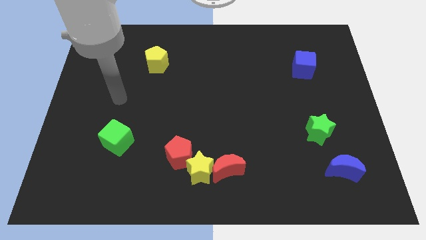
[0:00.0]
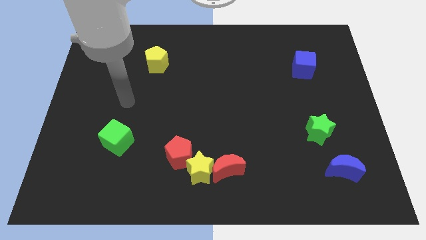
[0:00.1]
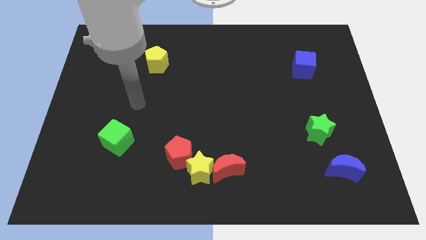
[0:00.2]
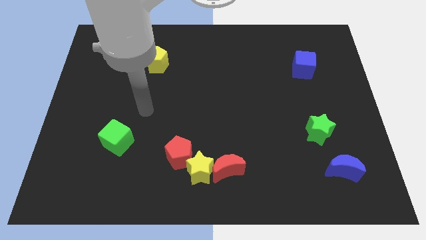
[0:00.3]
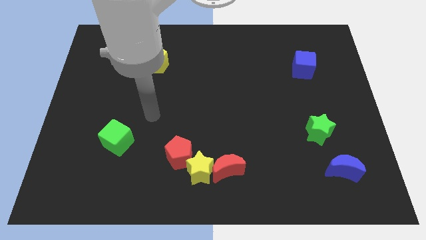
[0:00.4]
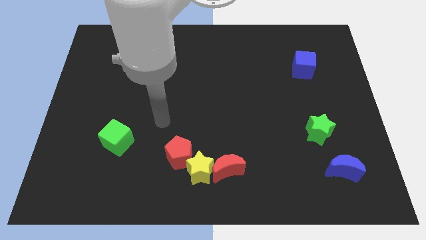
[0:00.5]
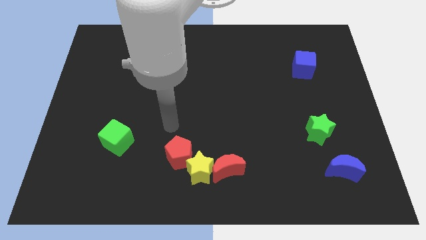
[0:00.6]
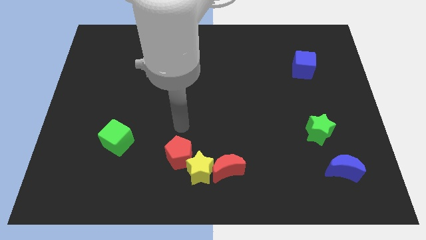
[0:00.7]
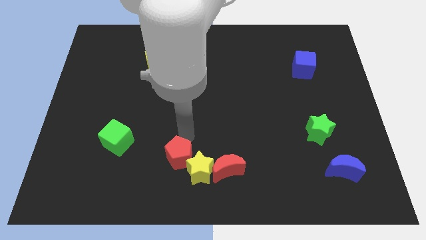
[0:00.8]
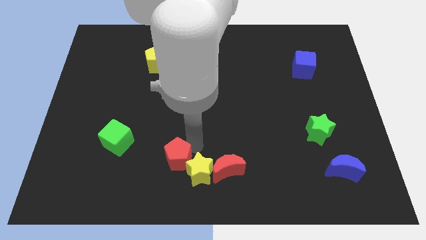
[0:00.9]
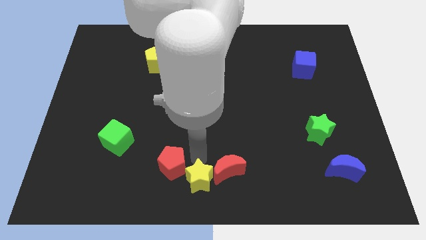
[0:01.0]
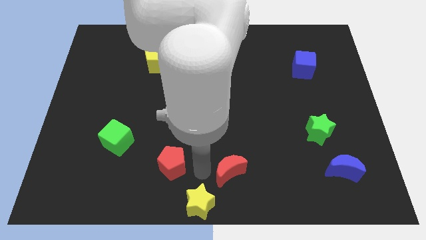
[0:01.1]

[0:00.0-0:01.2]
pull the red pentagon apart from the yellow star

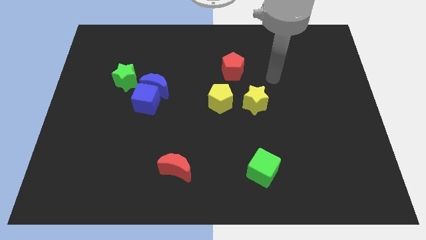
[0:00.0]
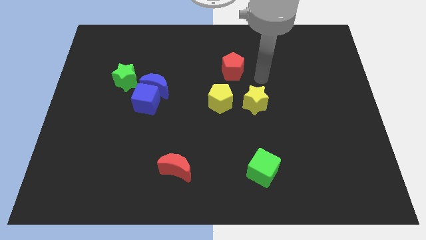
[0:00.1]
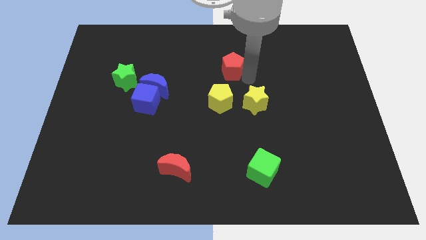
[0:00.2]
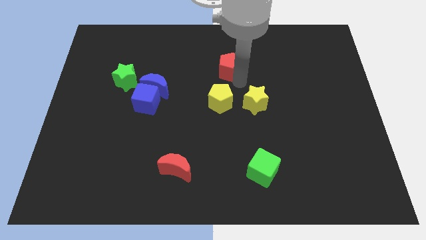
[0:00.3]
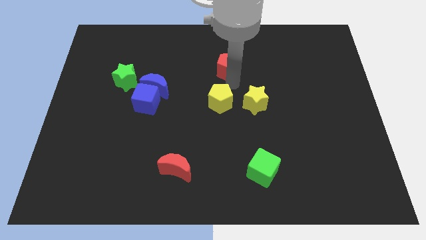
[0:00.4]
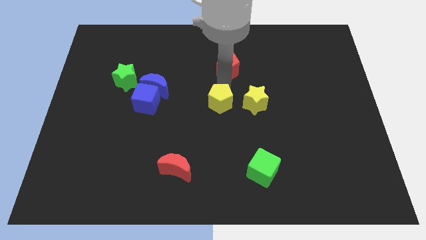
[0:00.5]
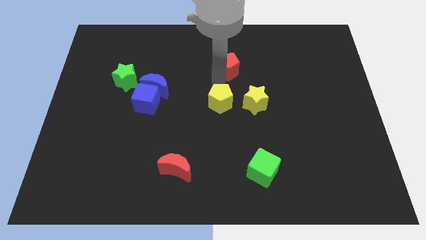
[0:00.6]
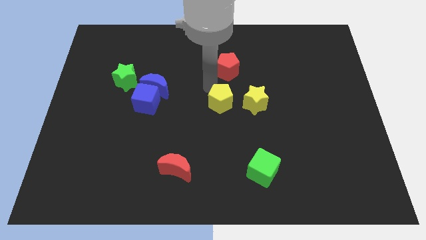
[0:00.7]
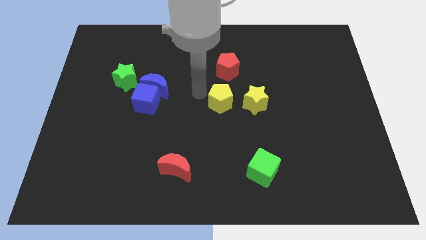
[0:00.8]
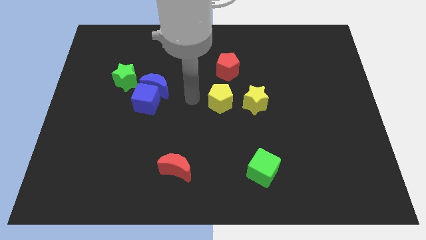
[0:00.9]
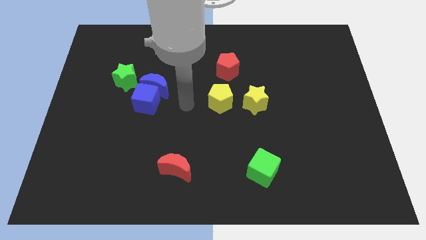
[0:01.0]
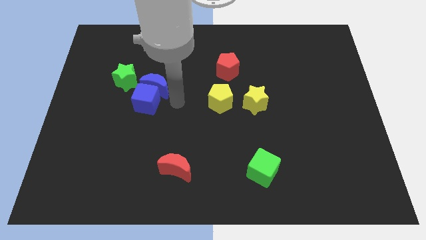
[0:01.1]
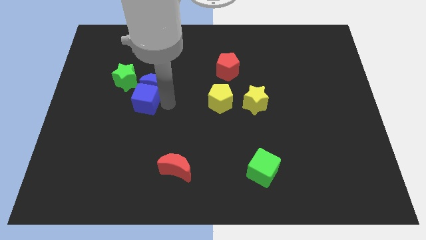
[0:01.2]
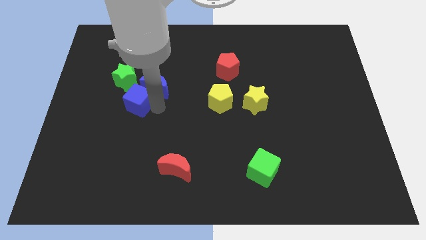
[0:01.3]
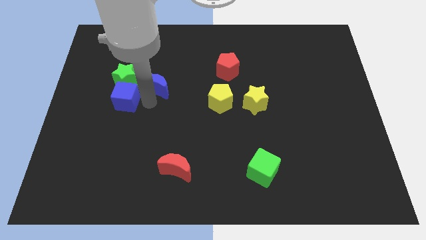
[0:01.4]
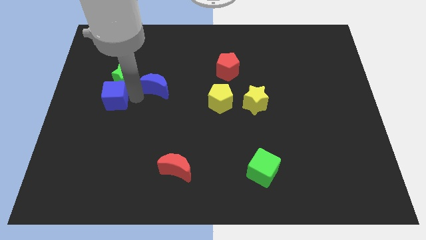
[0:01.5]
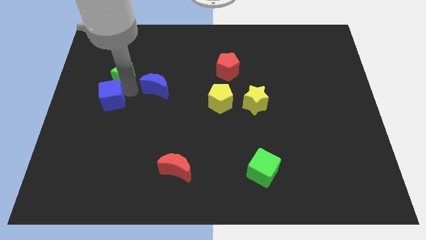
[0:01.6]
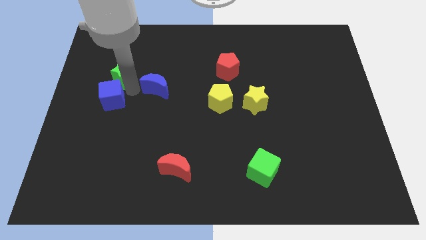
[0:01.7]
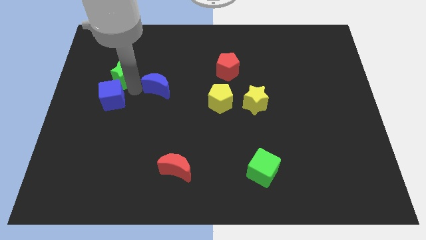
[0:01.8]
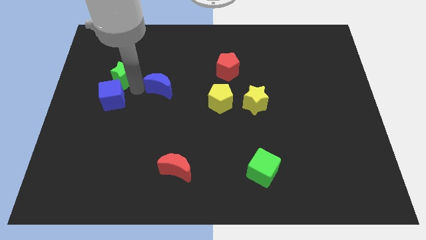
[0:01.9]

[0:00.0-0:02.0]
move the blue moon away from the blue cube and green star

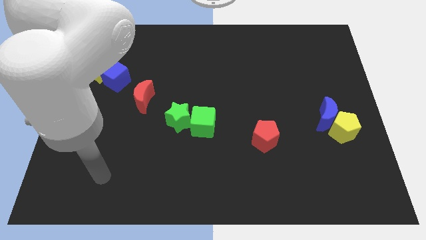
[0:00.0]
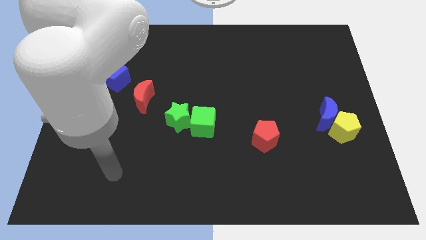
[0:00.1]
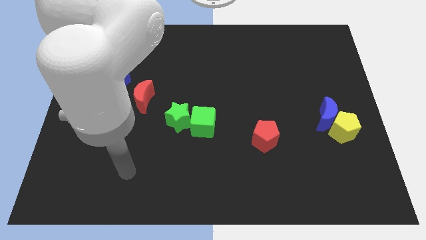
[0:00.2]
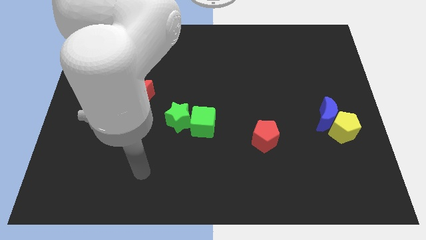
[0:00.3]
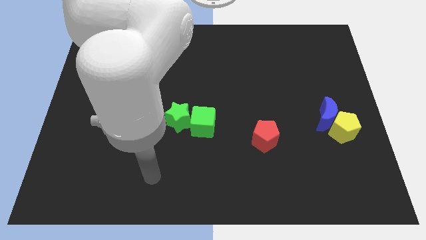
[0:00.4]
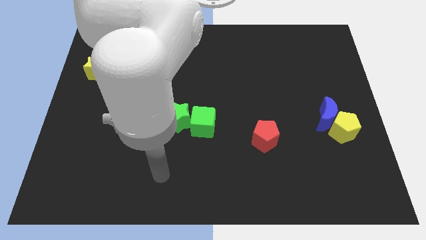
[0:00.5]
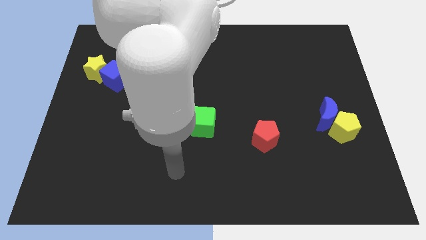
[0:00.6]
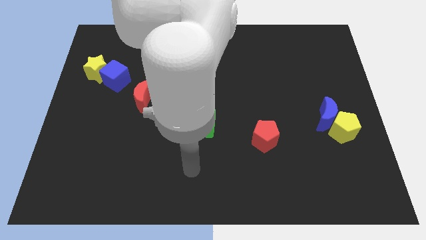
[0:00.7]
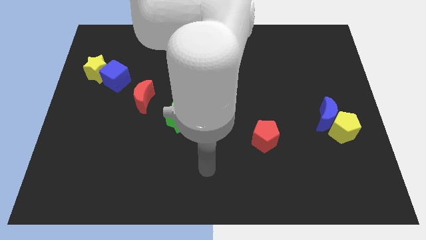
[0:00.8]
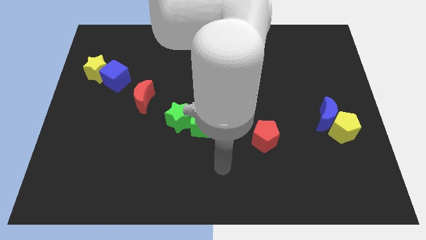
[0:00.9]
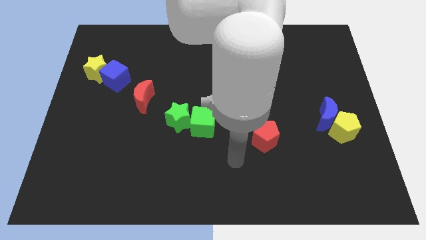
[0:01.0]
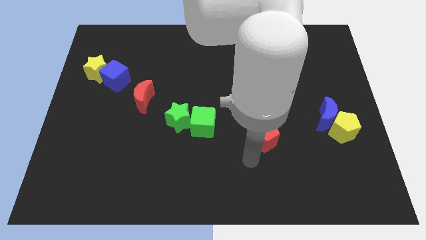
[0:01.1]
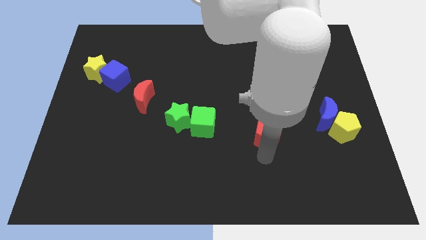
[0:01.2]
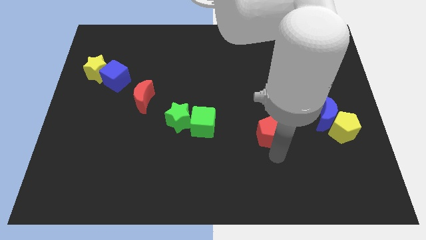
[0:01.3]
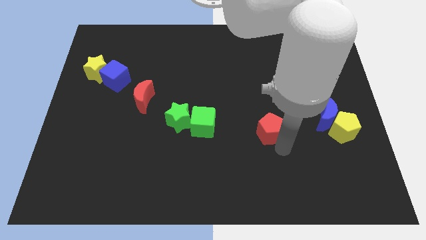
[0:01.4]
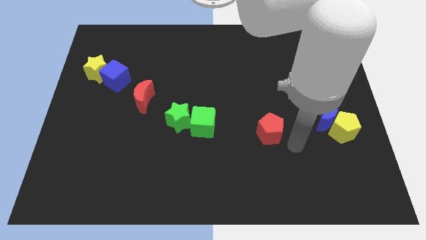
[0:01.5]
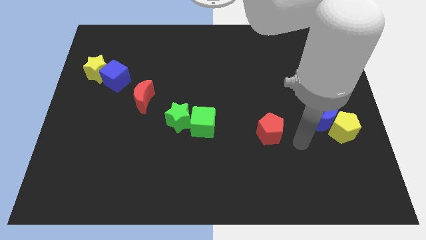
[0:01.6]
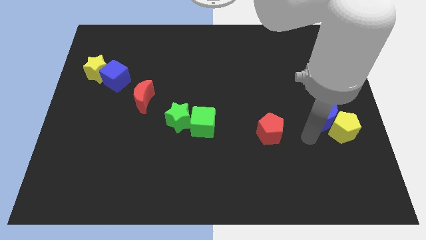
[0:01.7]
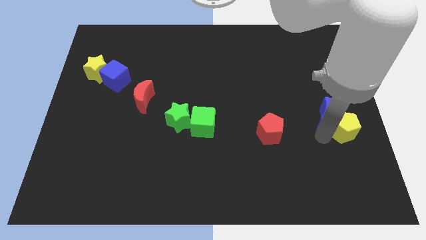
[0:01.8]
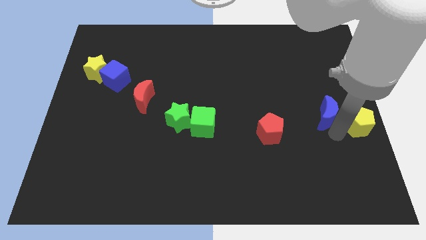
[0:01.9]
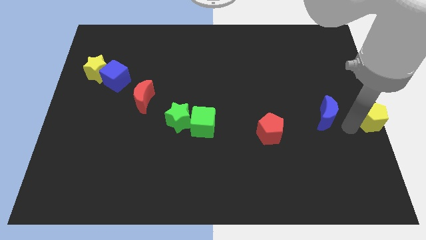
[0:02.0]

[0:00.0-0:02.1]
move the blue moon away from the yellow pentagon

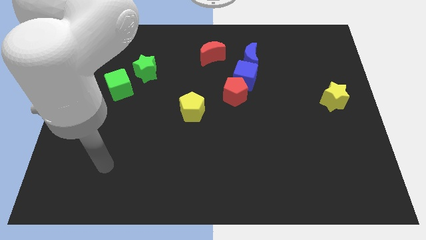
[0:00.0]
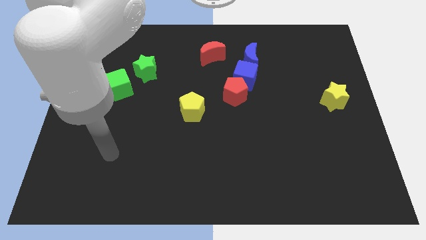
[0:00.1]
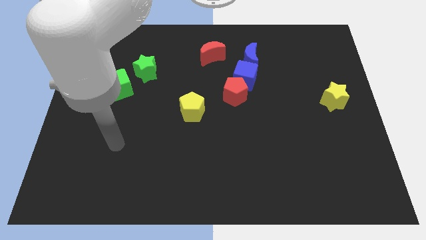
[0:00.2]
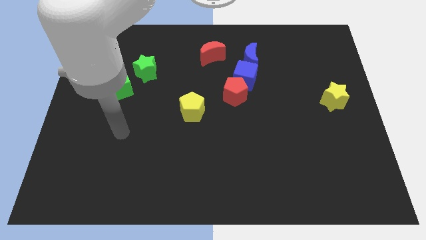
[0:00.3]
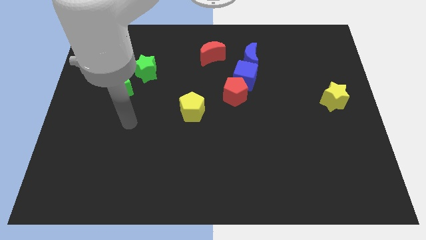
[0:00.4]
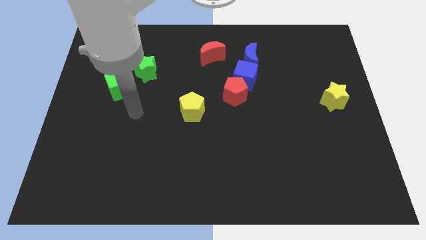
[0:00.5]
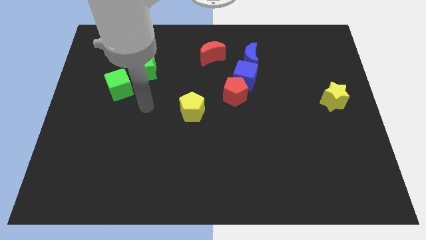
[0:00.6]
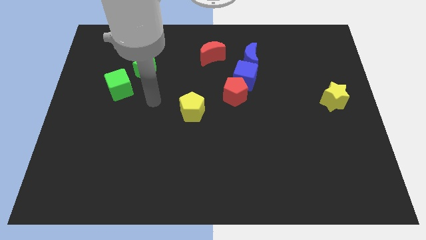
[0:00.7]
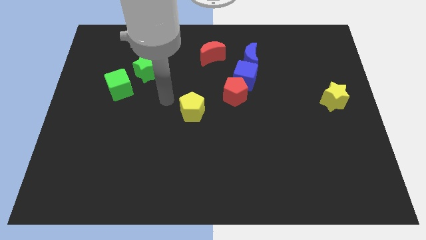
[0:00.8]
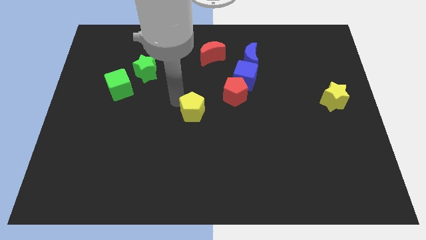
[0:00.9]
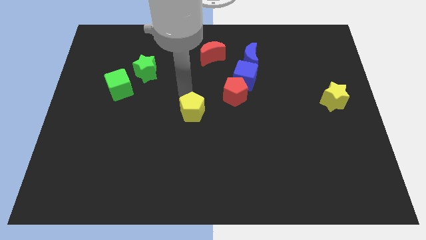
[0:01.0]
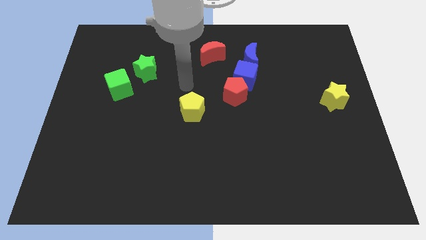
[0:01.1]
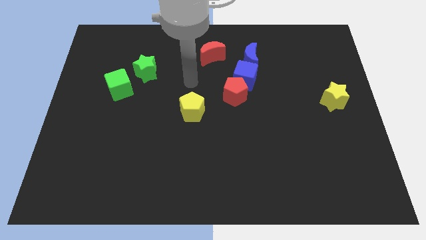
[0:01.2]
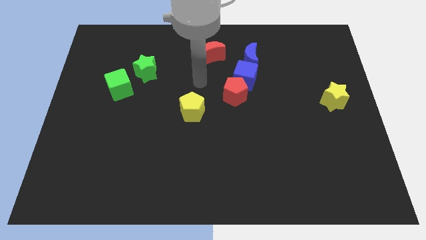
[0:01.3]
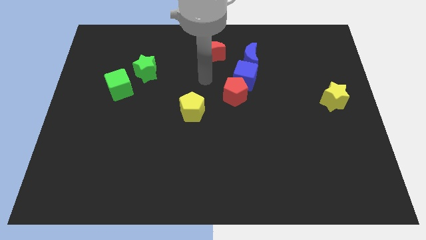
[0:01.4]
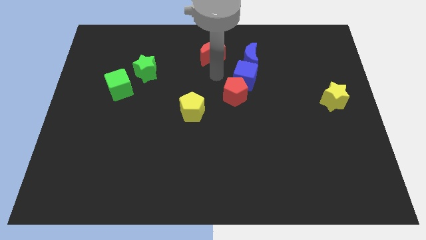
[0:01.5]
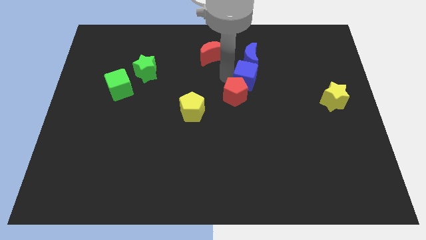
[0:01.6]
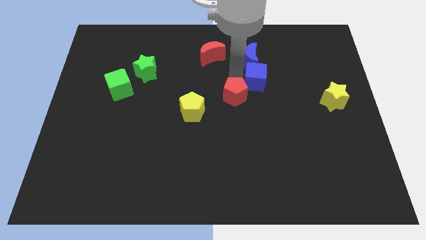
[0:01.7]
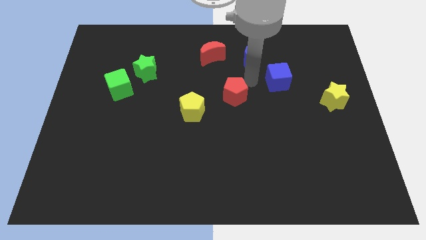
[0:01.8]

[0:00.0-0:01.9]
pull the red pentagon apart from the blue cube

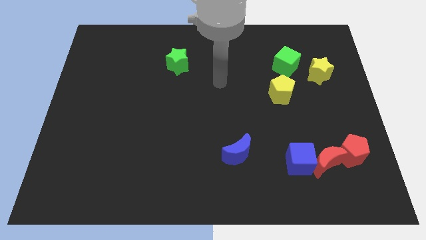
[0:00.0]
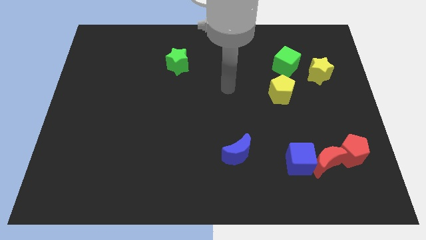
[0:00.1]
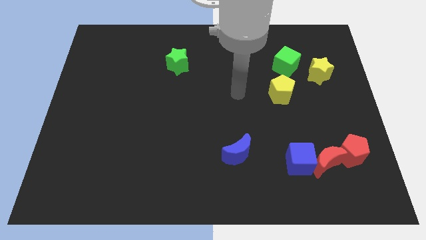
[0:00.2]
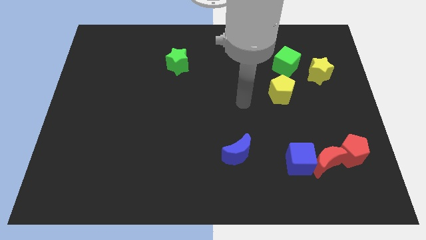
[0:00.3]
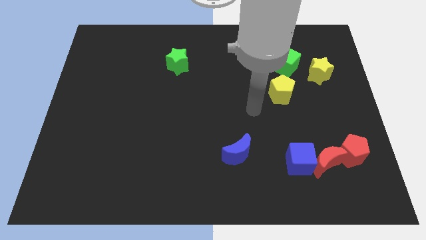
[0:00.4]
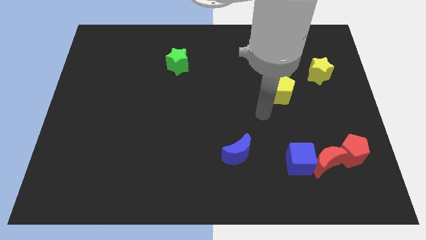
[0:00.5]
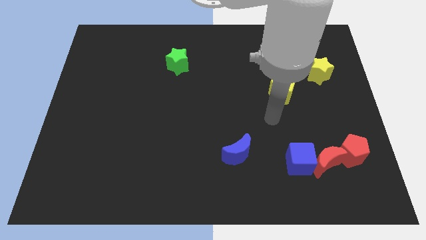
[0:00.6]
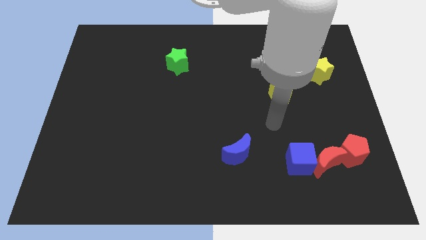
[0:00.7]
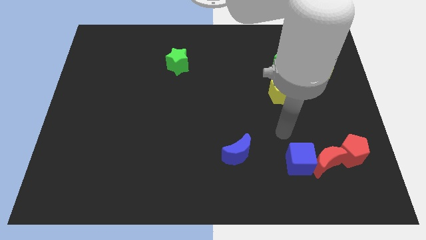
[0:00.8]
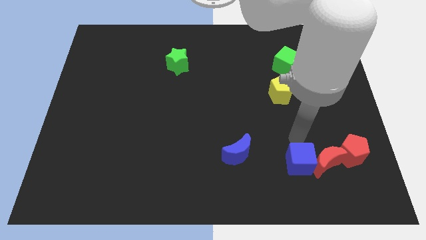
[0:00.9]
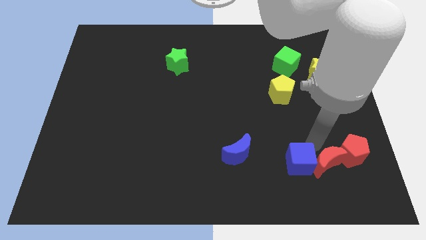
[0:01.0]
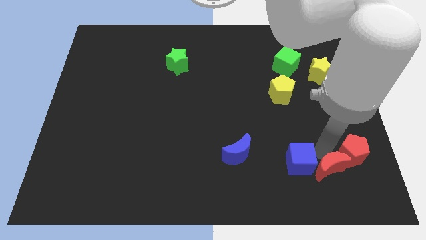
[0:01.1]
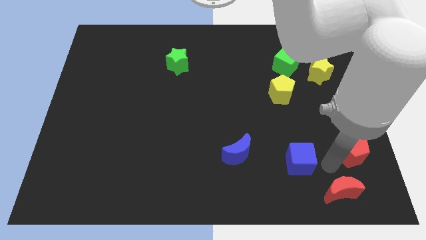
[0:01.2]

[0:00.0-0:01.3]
separate the blue cube from the red moon

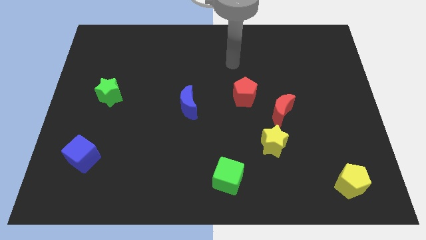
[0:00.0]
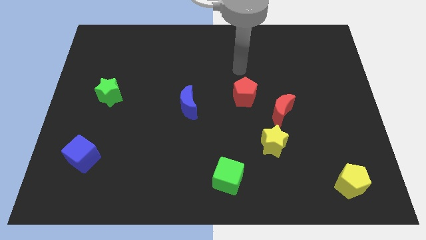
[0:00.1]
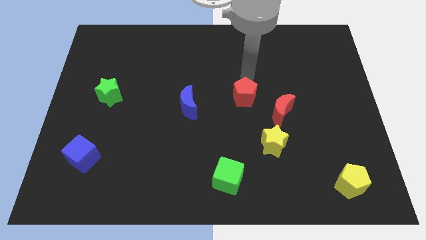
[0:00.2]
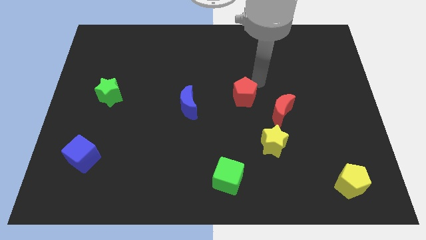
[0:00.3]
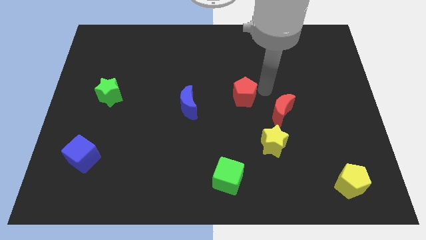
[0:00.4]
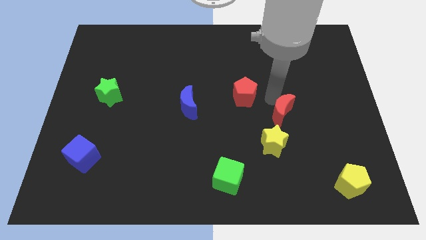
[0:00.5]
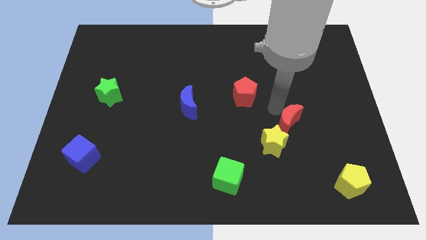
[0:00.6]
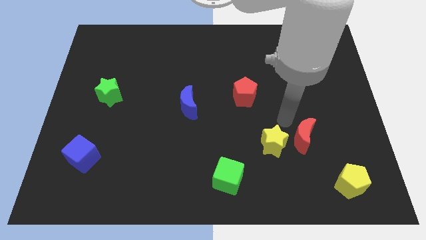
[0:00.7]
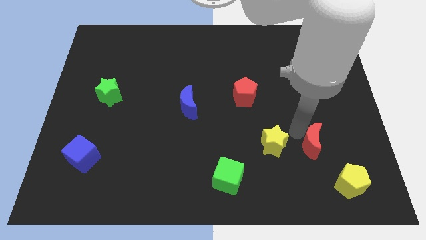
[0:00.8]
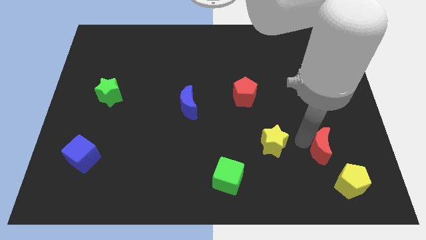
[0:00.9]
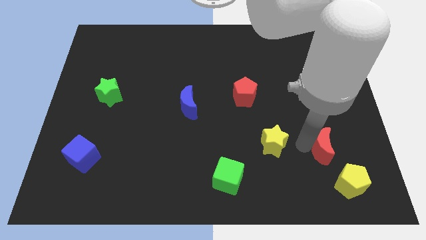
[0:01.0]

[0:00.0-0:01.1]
pull the yellow star apart from the red moon
